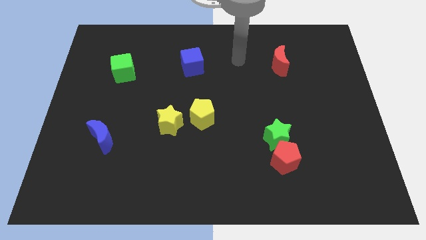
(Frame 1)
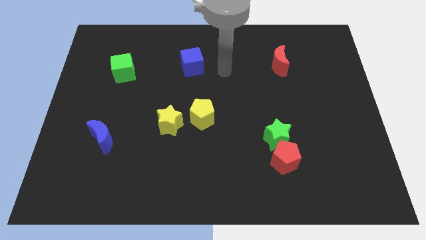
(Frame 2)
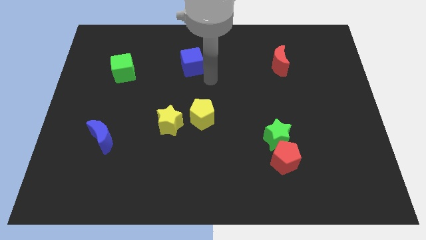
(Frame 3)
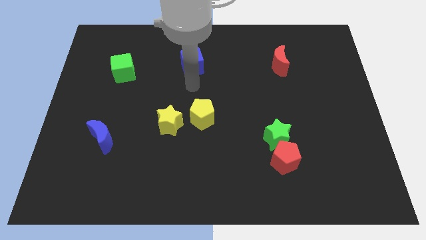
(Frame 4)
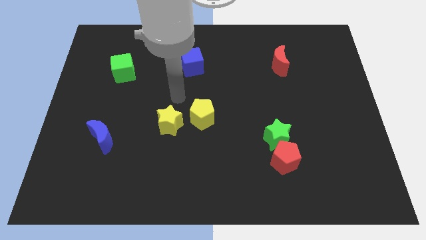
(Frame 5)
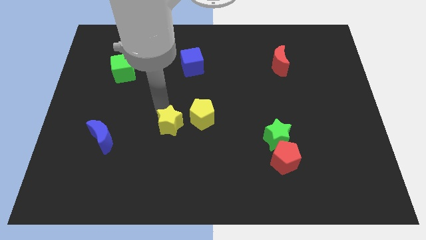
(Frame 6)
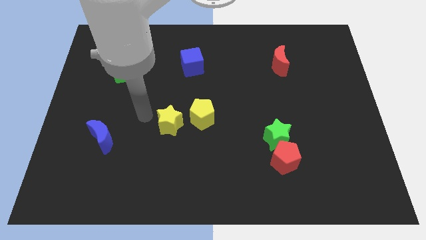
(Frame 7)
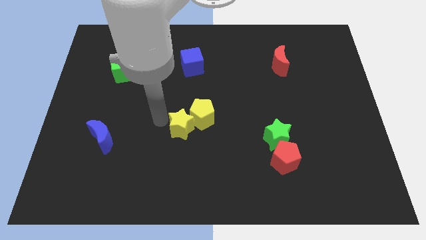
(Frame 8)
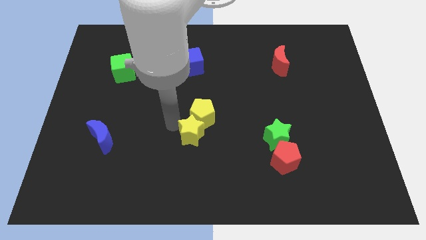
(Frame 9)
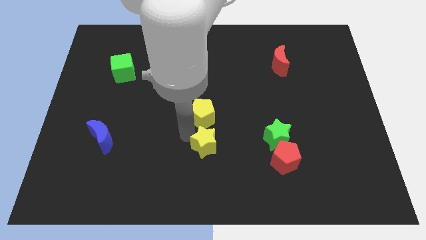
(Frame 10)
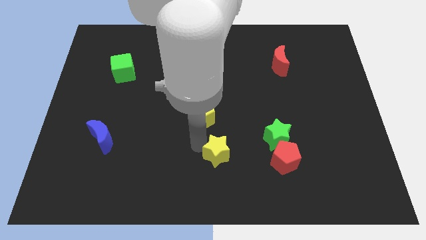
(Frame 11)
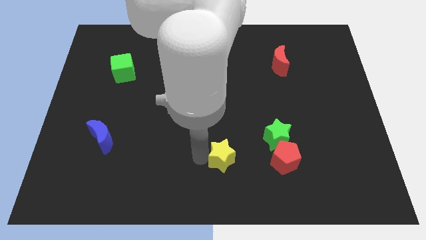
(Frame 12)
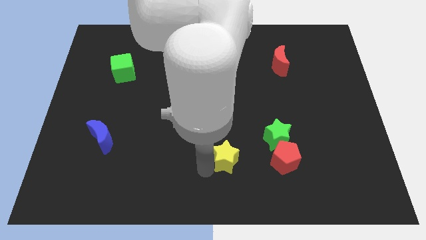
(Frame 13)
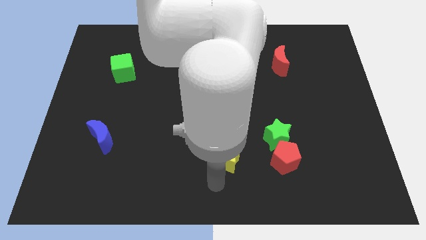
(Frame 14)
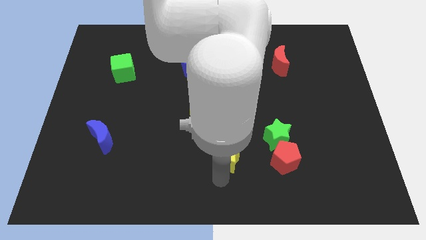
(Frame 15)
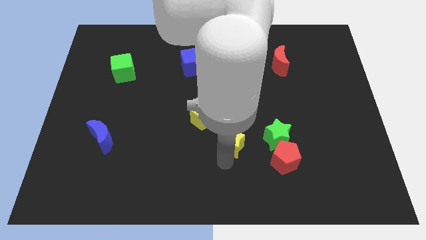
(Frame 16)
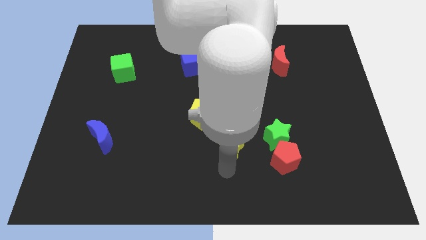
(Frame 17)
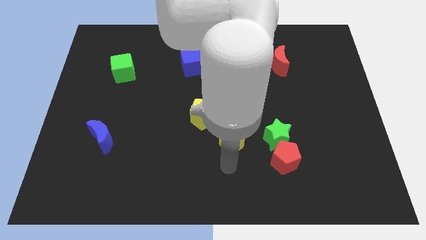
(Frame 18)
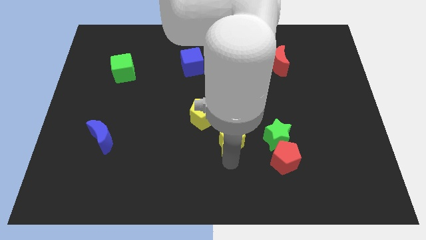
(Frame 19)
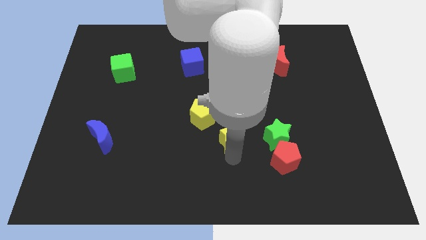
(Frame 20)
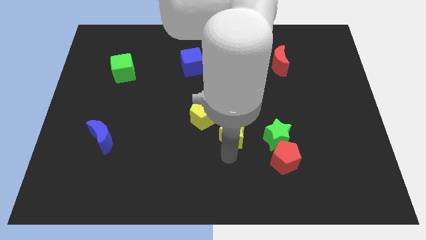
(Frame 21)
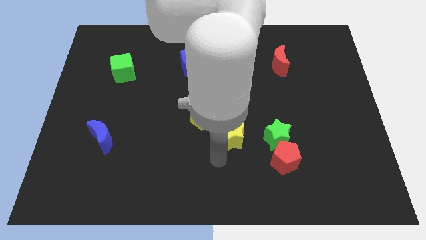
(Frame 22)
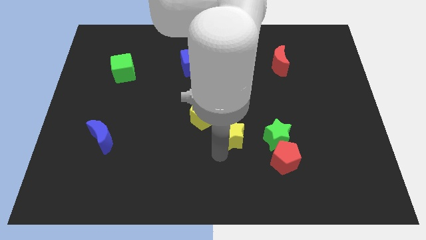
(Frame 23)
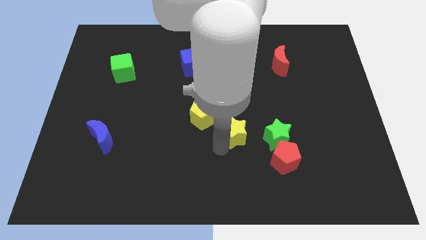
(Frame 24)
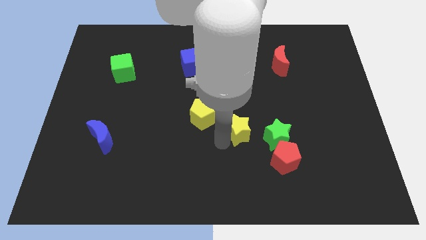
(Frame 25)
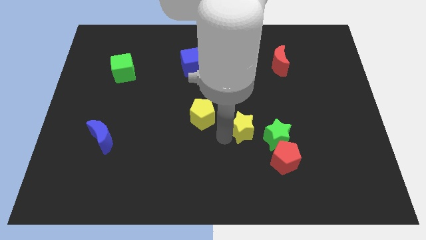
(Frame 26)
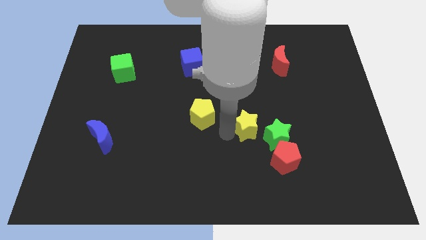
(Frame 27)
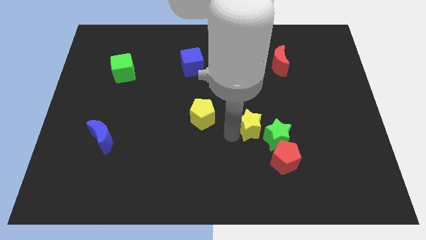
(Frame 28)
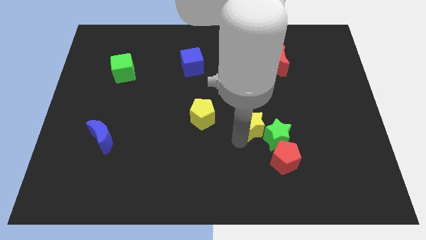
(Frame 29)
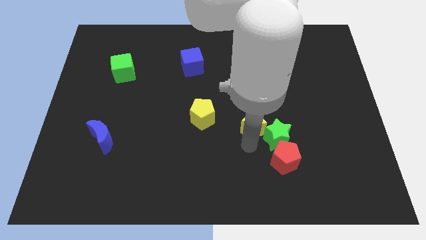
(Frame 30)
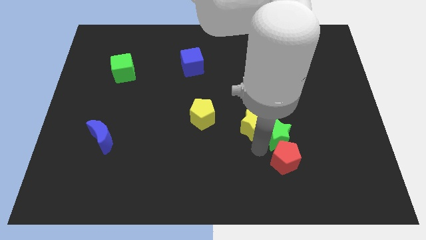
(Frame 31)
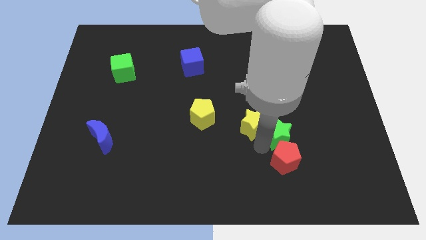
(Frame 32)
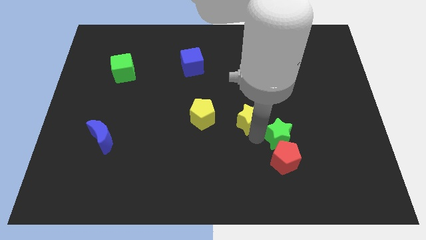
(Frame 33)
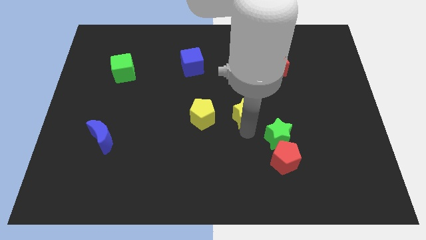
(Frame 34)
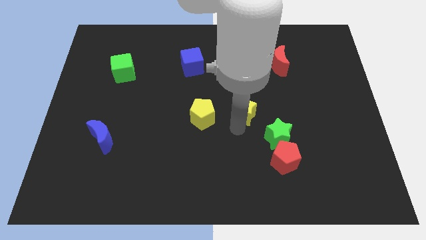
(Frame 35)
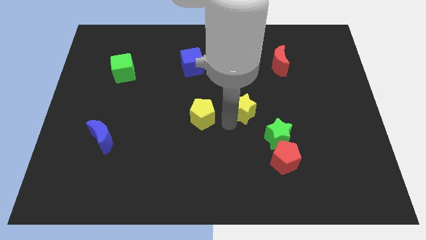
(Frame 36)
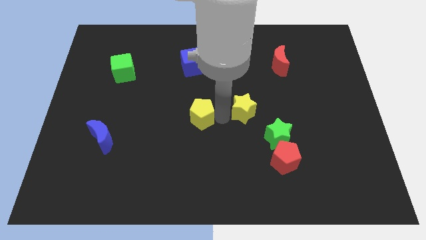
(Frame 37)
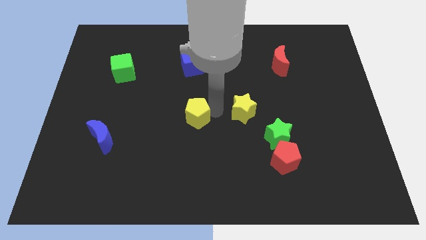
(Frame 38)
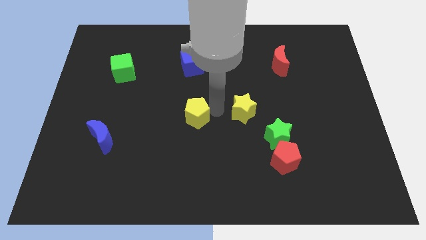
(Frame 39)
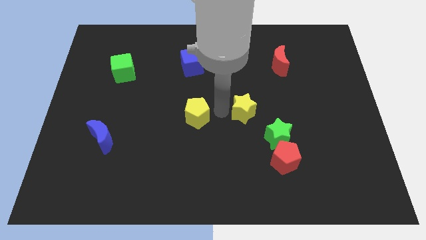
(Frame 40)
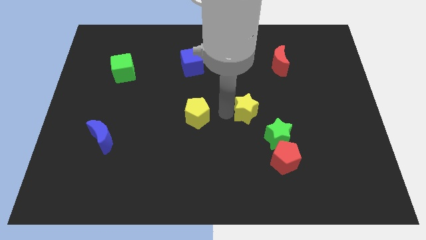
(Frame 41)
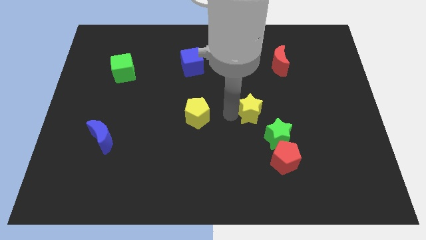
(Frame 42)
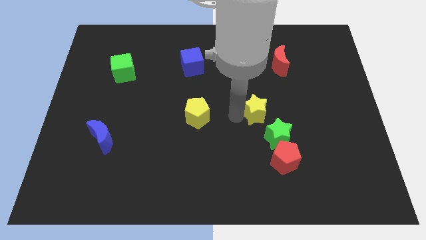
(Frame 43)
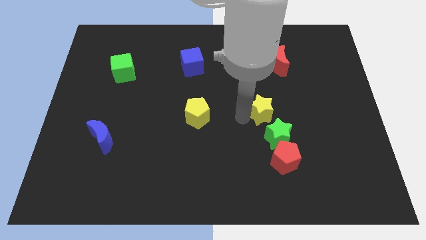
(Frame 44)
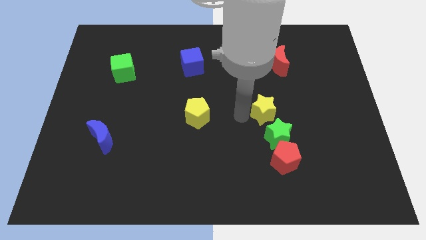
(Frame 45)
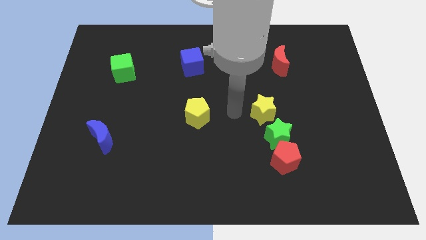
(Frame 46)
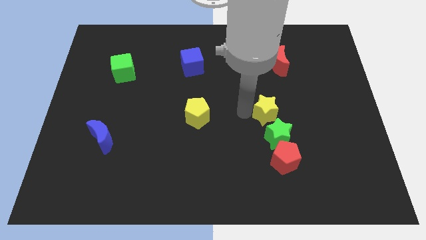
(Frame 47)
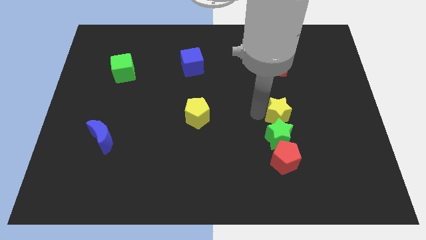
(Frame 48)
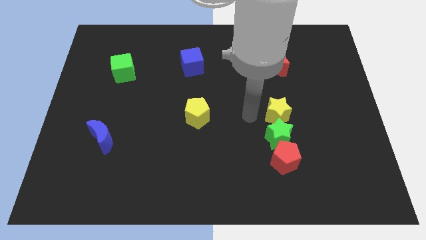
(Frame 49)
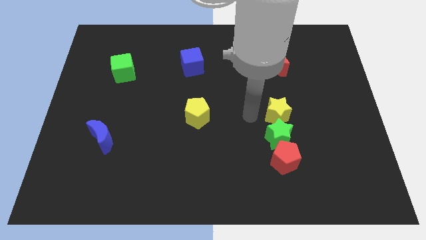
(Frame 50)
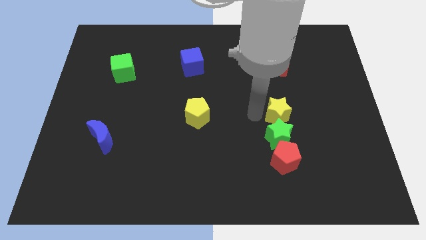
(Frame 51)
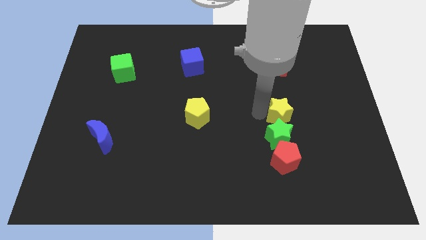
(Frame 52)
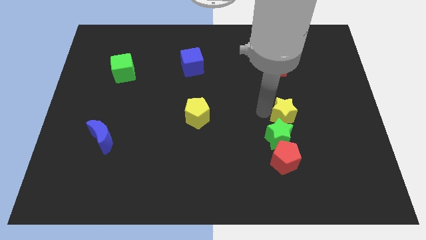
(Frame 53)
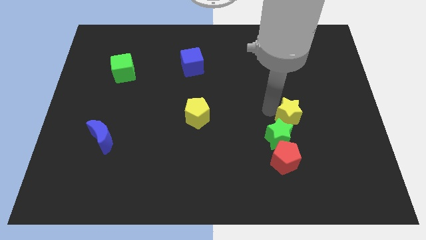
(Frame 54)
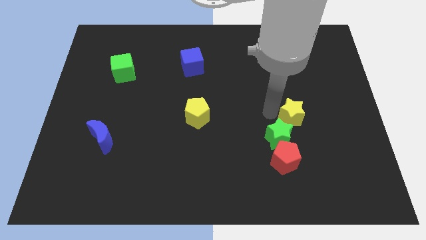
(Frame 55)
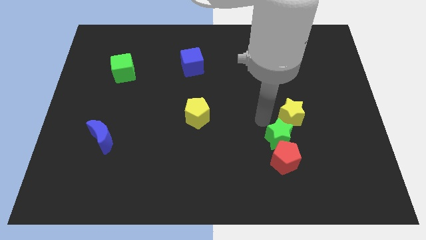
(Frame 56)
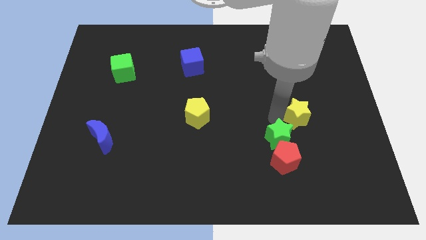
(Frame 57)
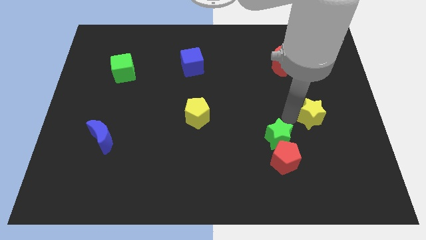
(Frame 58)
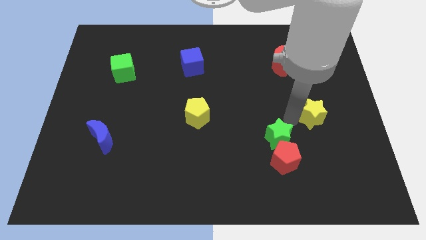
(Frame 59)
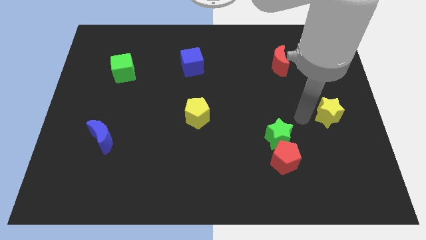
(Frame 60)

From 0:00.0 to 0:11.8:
move the yellow star to the right side
